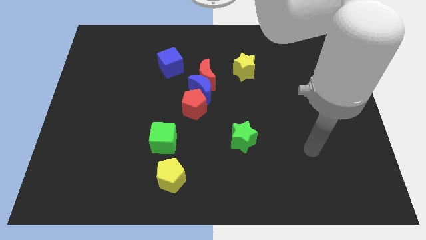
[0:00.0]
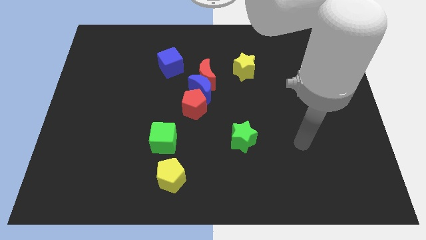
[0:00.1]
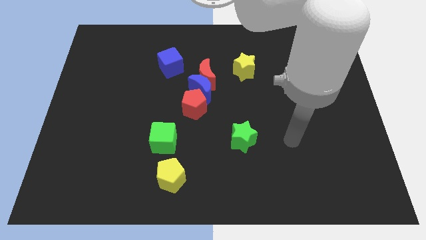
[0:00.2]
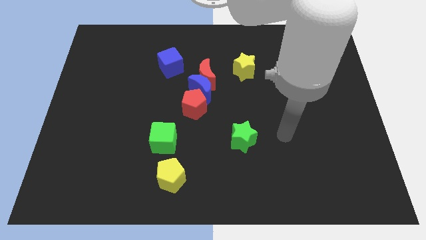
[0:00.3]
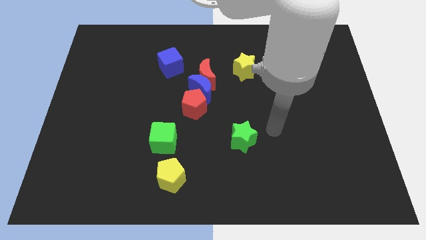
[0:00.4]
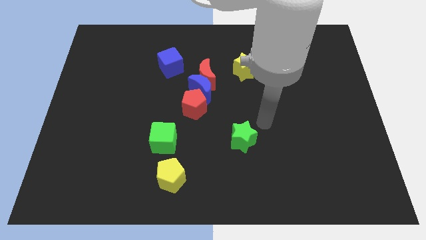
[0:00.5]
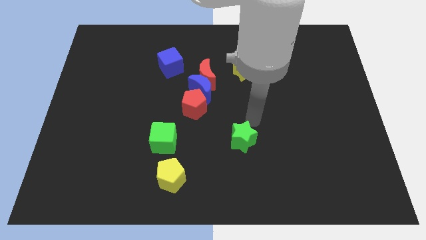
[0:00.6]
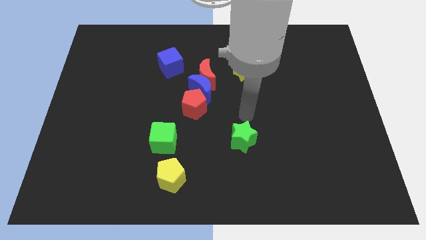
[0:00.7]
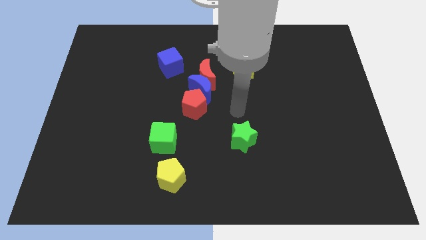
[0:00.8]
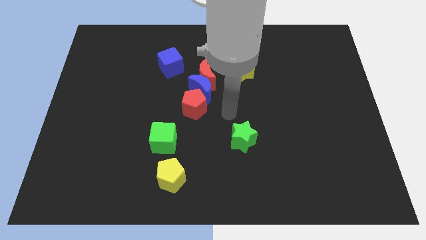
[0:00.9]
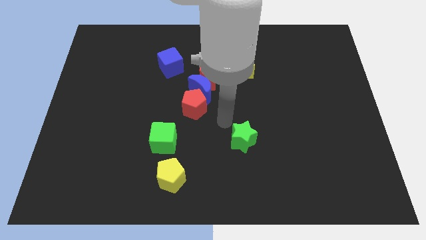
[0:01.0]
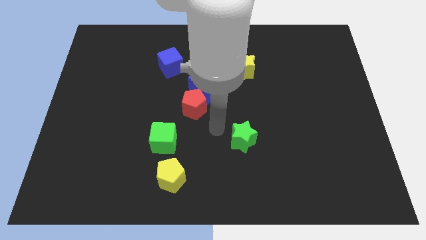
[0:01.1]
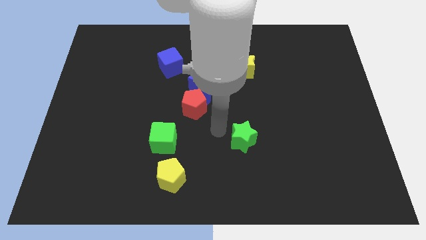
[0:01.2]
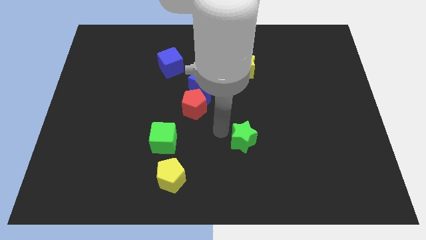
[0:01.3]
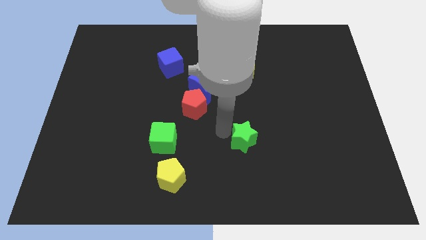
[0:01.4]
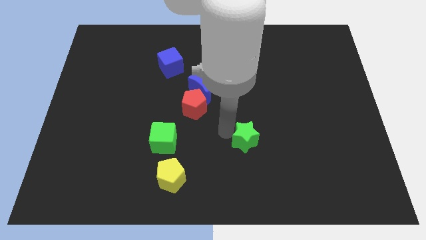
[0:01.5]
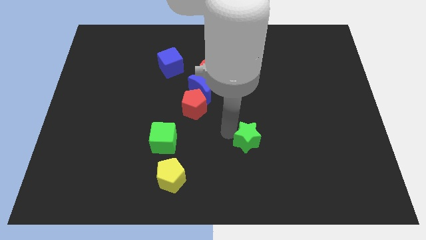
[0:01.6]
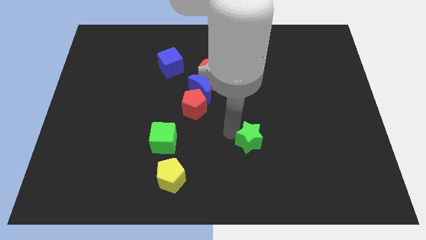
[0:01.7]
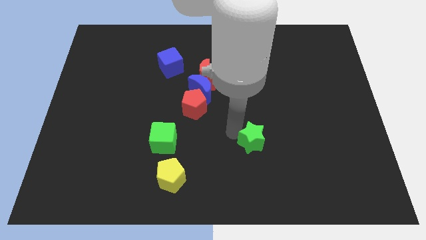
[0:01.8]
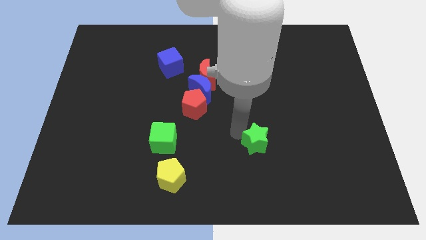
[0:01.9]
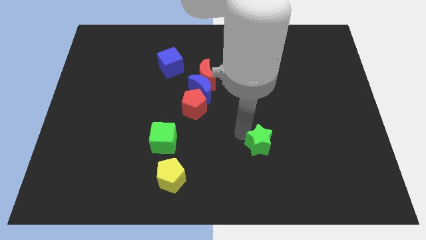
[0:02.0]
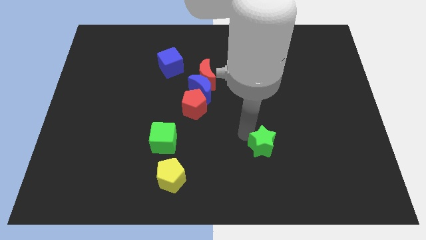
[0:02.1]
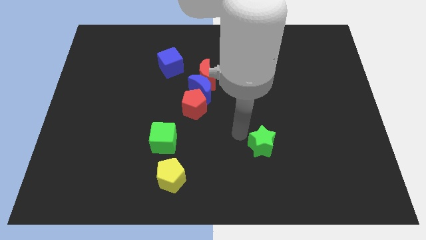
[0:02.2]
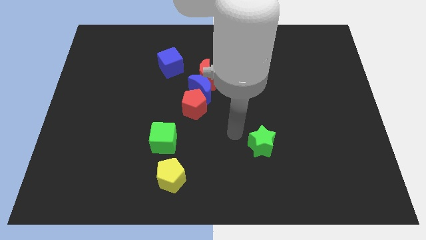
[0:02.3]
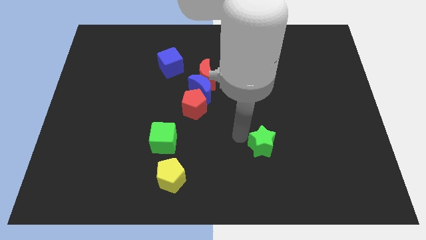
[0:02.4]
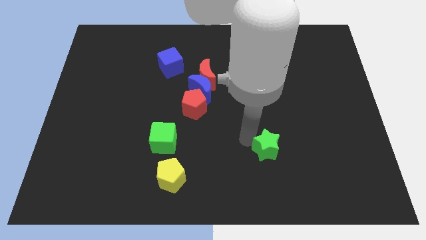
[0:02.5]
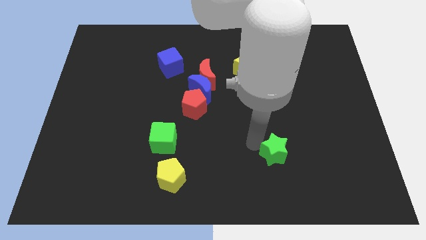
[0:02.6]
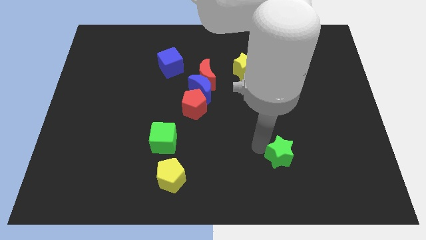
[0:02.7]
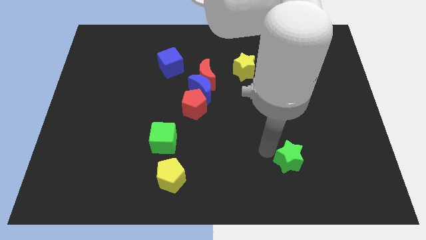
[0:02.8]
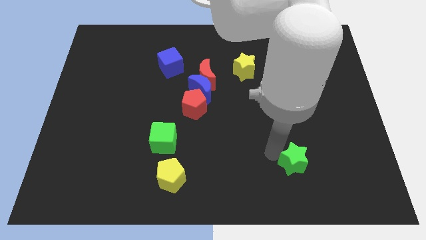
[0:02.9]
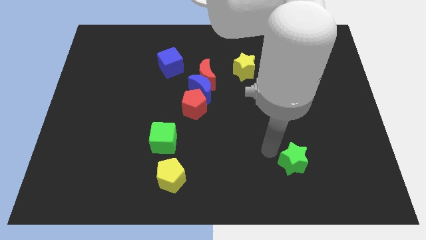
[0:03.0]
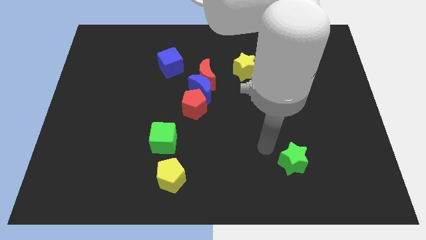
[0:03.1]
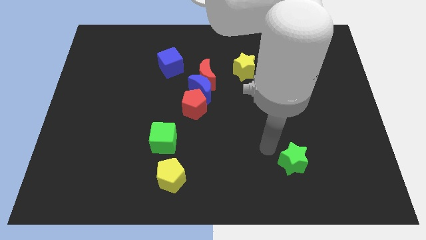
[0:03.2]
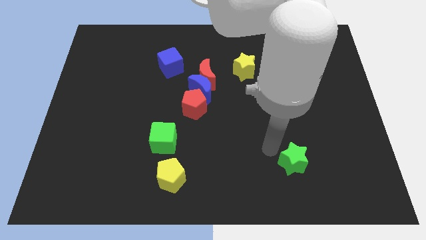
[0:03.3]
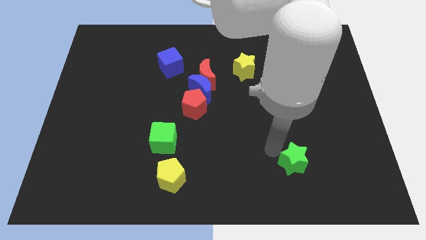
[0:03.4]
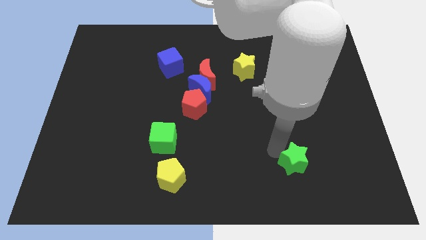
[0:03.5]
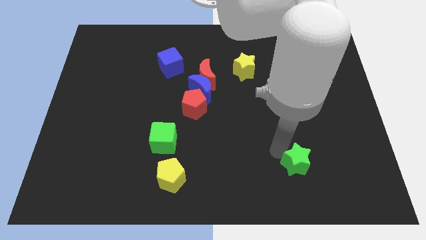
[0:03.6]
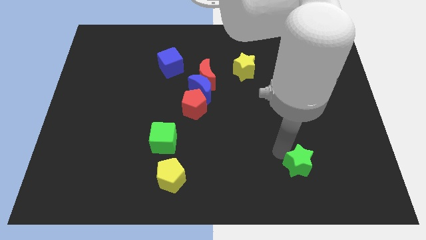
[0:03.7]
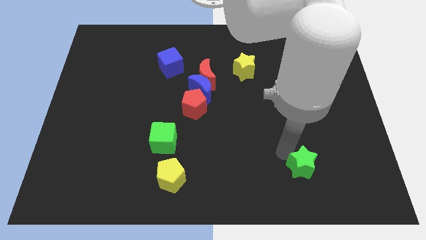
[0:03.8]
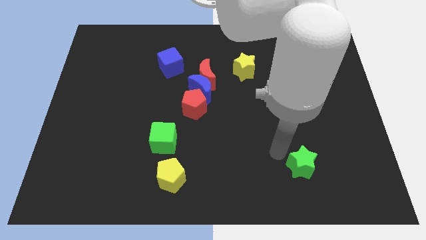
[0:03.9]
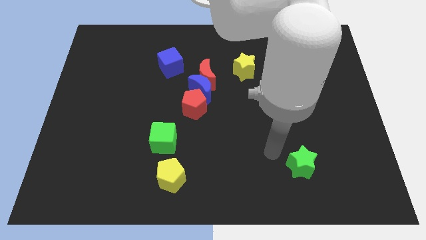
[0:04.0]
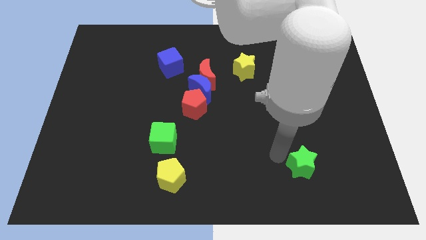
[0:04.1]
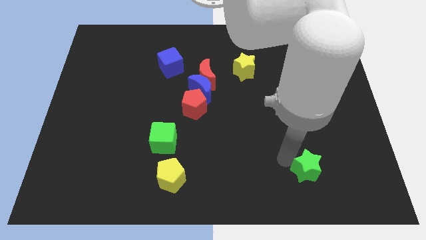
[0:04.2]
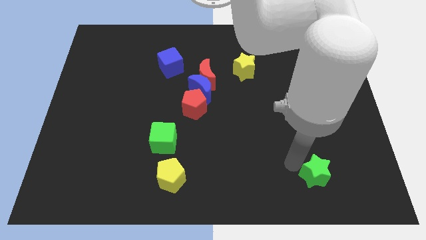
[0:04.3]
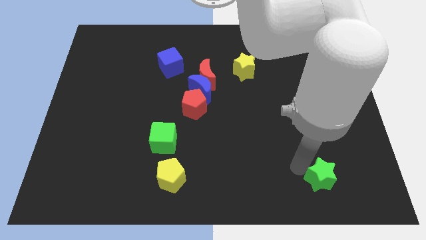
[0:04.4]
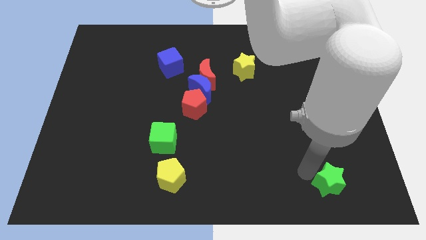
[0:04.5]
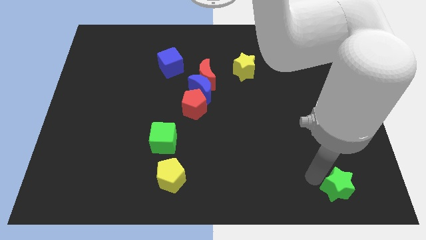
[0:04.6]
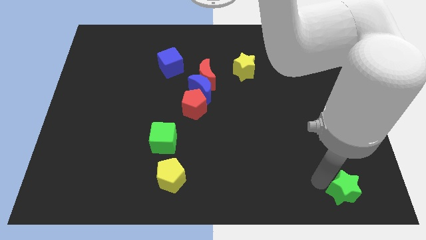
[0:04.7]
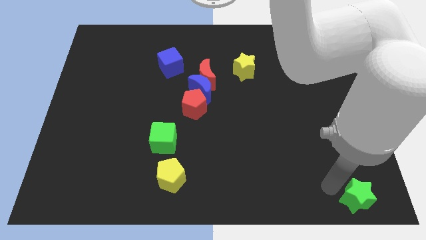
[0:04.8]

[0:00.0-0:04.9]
slide the green star to the bottom right

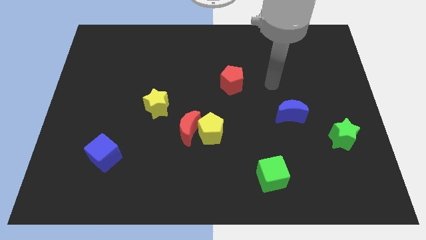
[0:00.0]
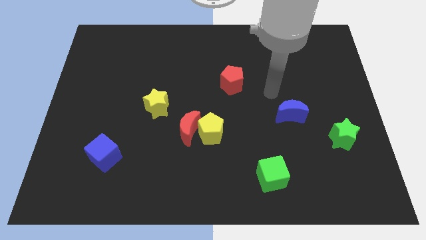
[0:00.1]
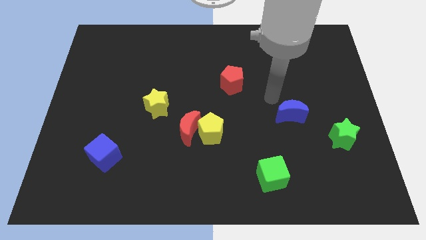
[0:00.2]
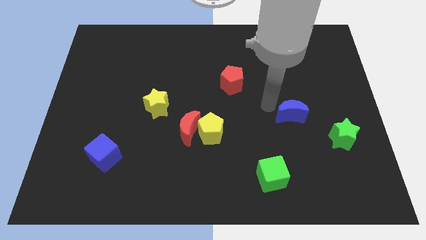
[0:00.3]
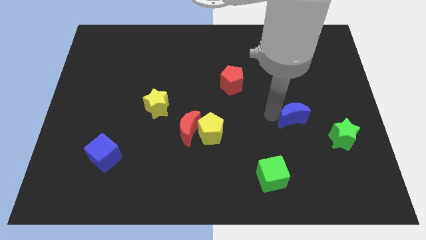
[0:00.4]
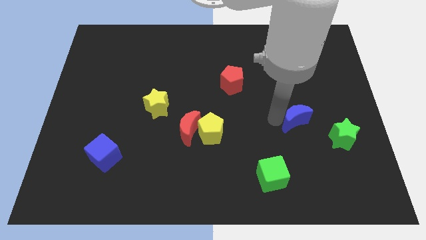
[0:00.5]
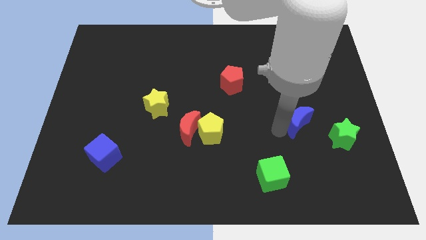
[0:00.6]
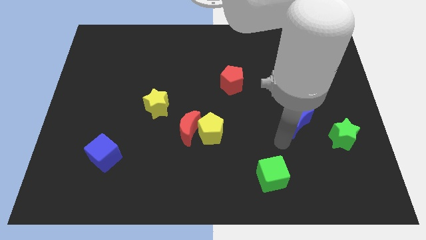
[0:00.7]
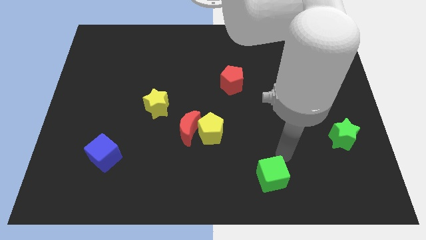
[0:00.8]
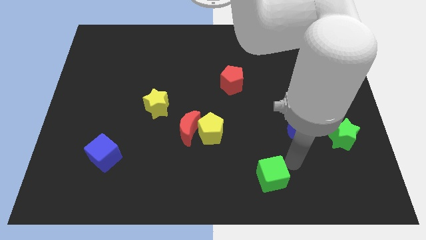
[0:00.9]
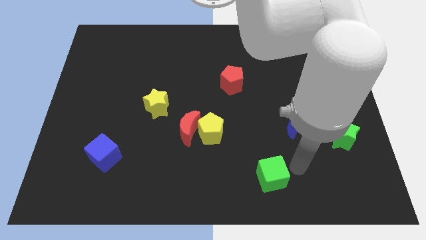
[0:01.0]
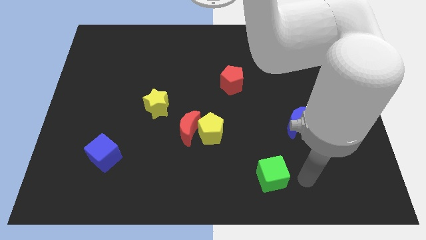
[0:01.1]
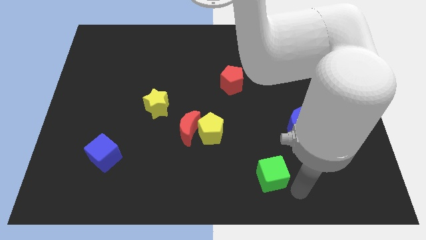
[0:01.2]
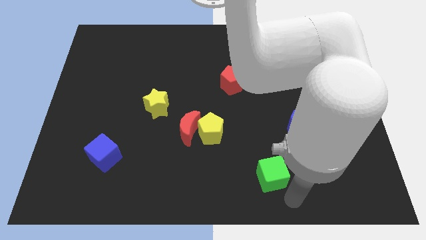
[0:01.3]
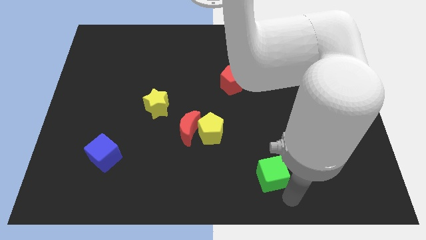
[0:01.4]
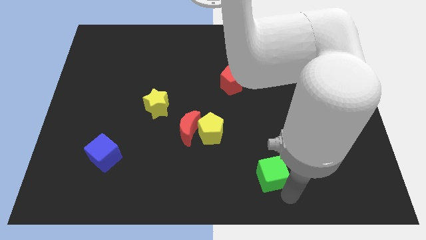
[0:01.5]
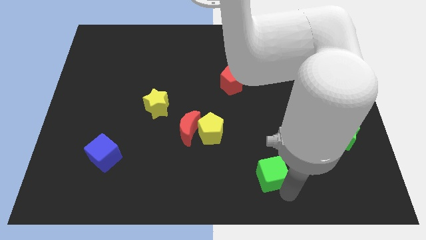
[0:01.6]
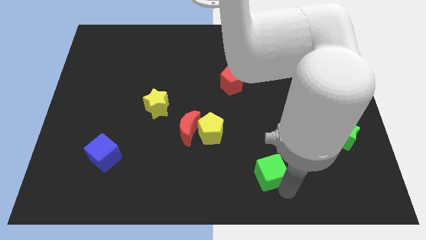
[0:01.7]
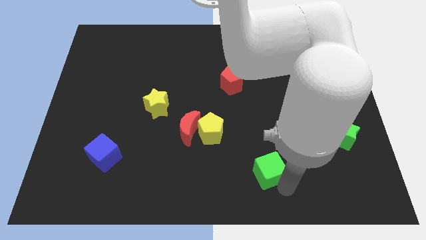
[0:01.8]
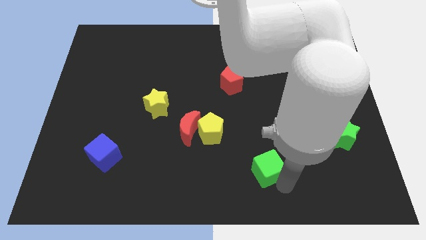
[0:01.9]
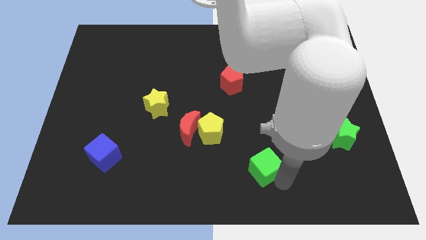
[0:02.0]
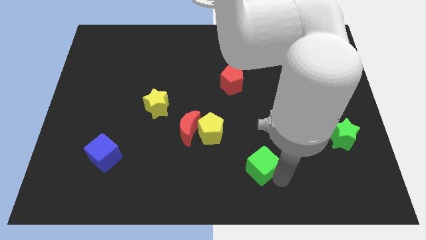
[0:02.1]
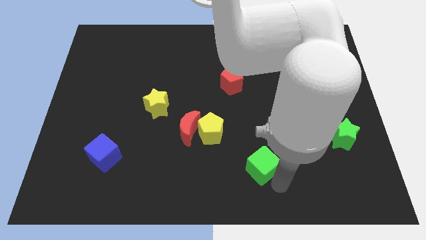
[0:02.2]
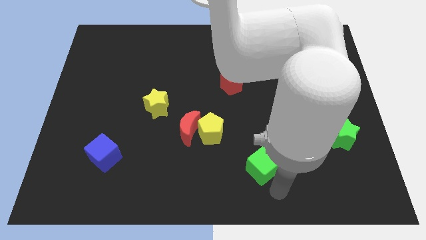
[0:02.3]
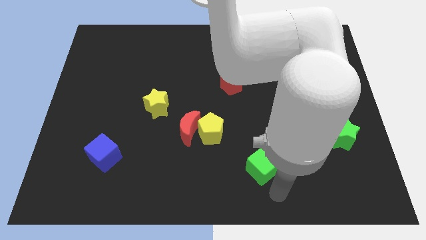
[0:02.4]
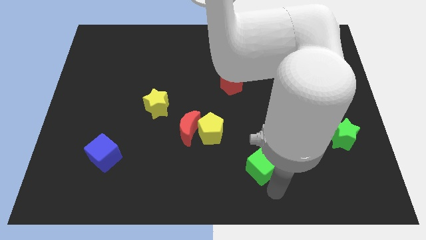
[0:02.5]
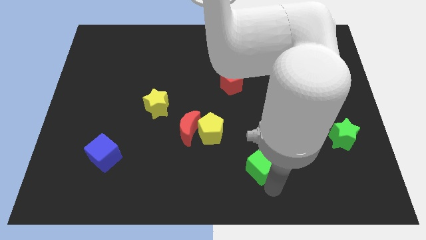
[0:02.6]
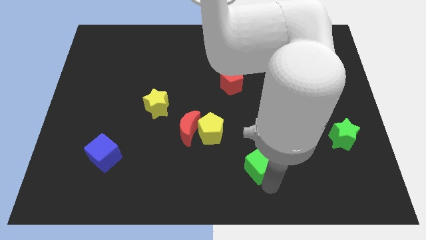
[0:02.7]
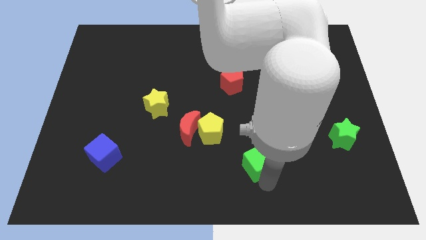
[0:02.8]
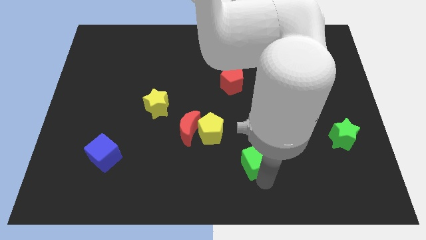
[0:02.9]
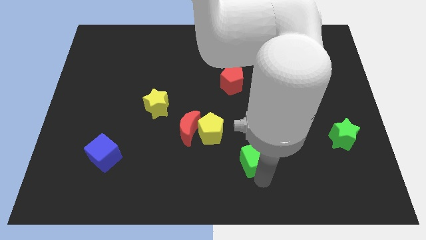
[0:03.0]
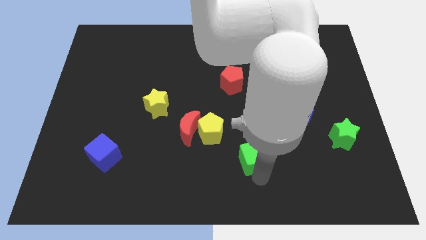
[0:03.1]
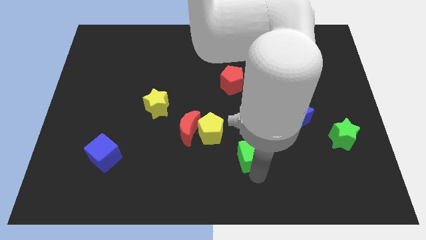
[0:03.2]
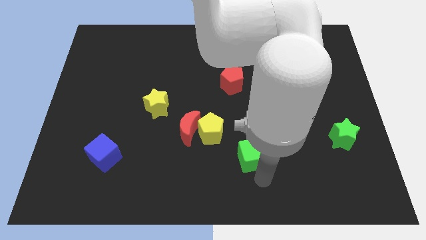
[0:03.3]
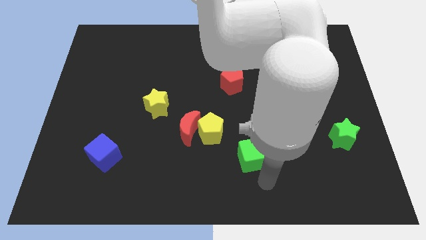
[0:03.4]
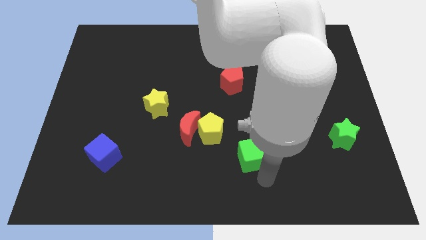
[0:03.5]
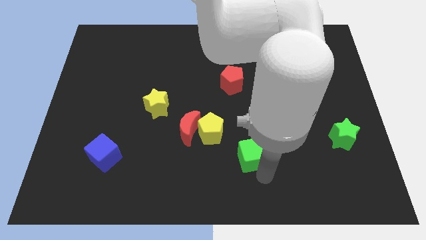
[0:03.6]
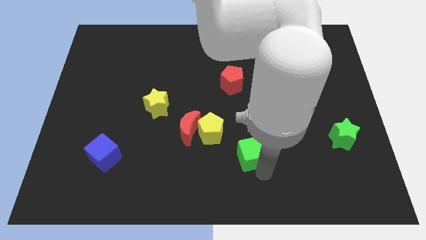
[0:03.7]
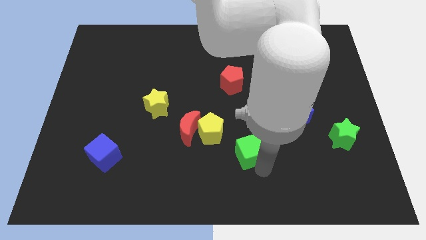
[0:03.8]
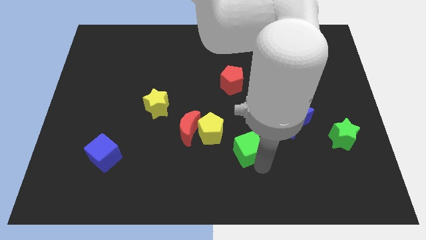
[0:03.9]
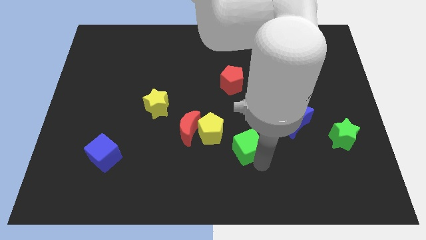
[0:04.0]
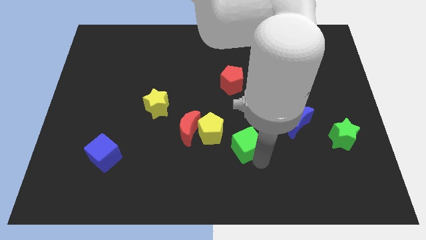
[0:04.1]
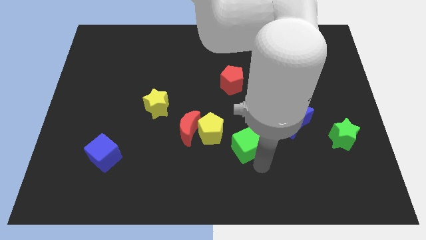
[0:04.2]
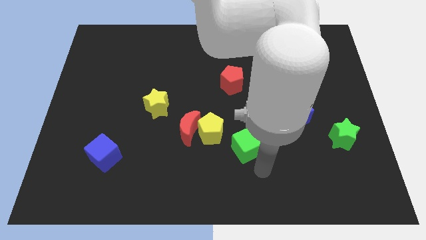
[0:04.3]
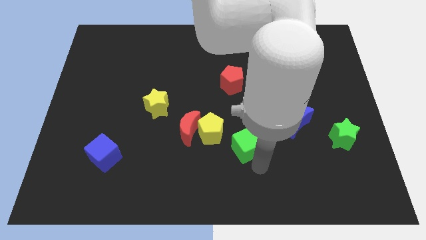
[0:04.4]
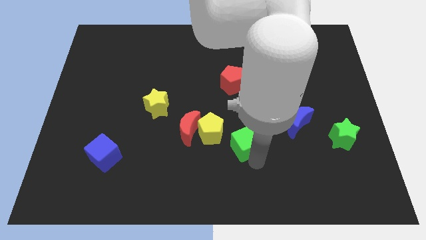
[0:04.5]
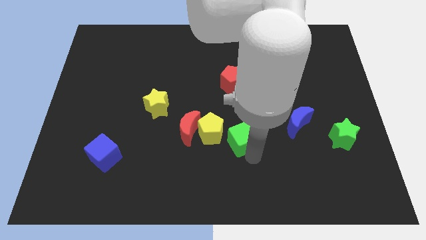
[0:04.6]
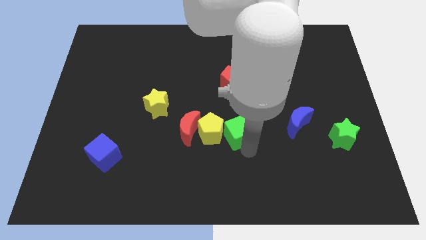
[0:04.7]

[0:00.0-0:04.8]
push the green cube to the middle
